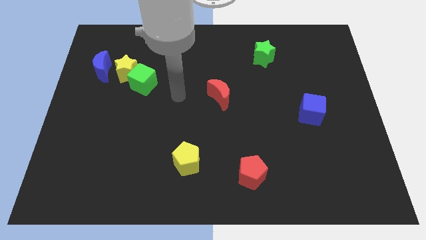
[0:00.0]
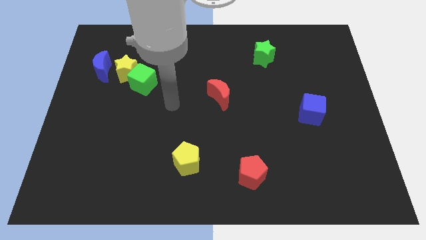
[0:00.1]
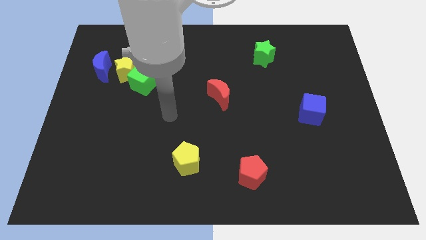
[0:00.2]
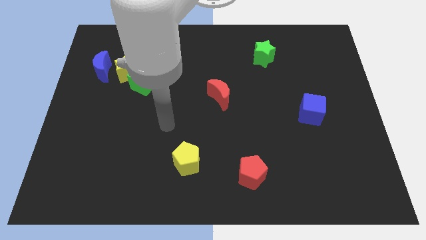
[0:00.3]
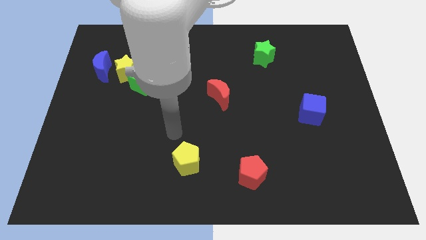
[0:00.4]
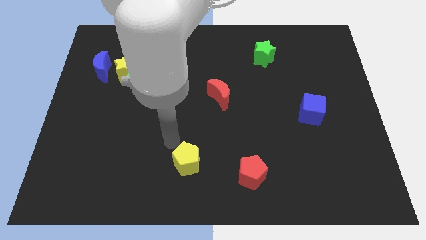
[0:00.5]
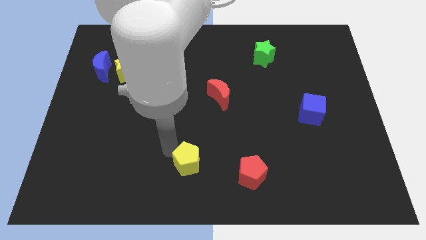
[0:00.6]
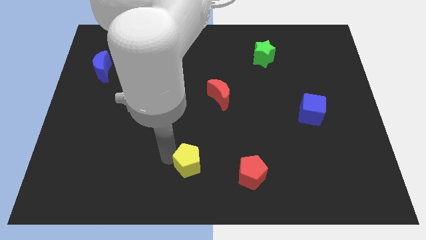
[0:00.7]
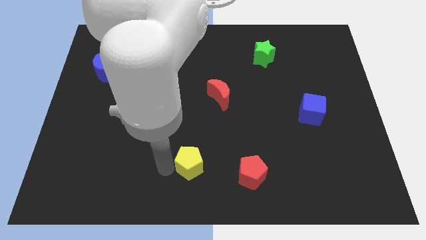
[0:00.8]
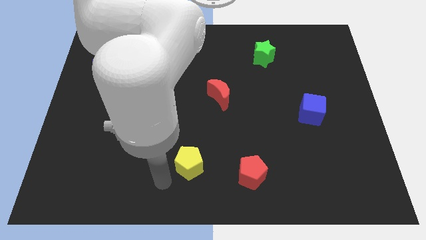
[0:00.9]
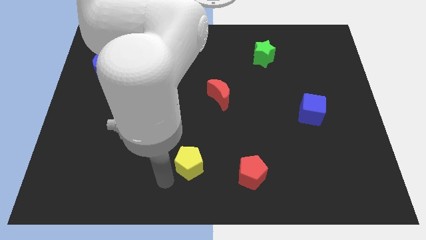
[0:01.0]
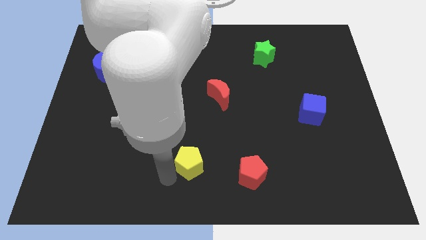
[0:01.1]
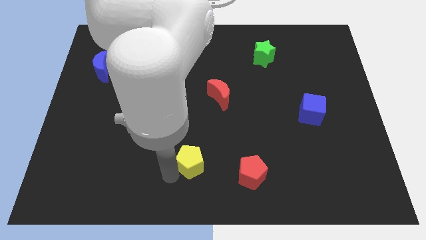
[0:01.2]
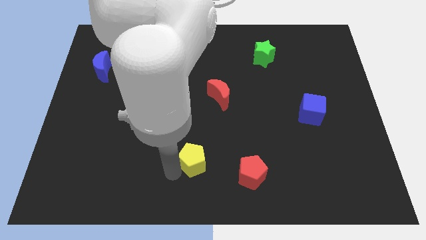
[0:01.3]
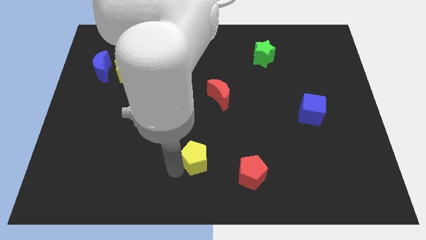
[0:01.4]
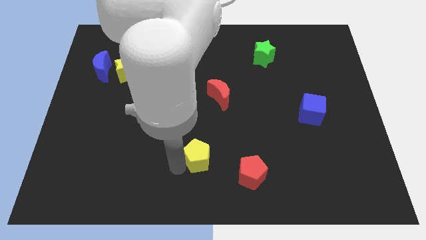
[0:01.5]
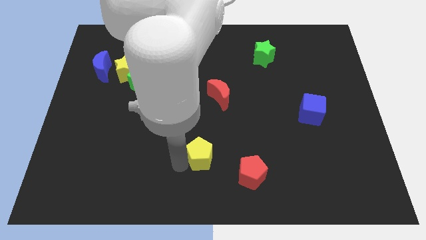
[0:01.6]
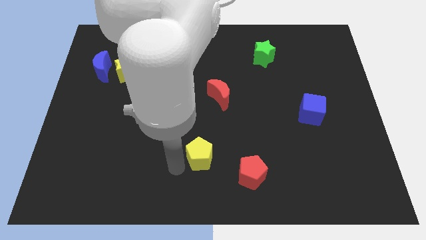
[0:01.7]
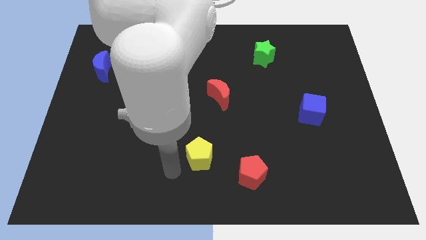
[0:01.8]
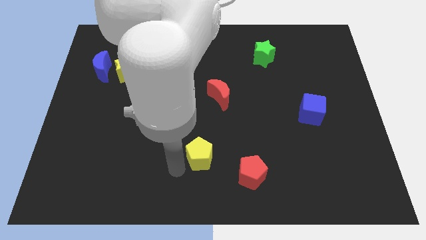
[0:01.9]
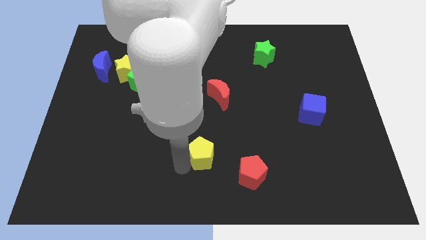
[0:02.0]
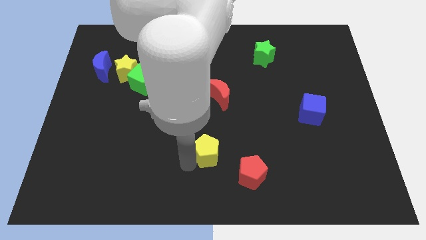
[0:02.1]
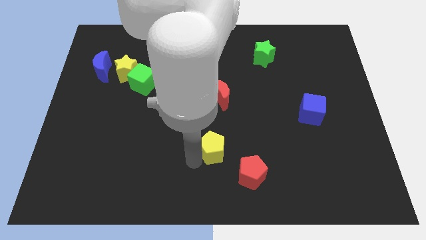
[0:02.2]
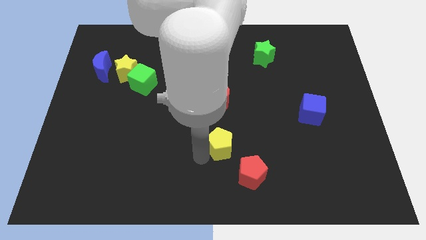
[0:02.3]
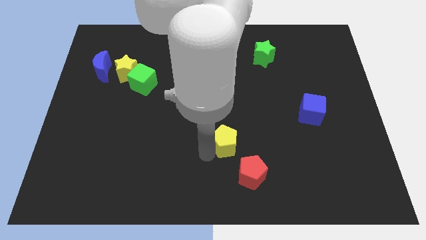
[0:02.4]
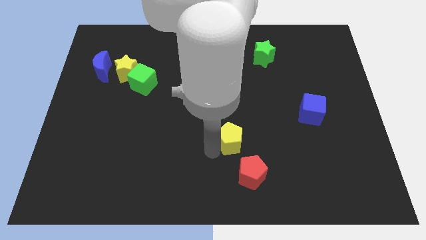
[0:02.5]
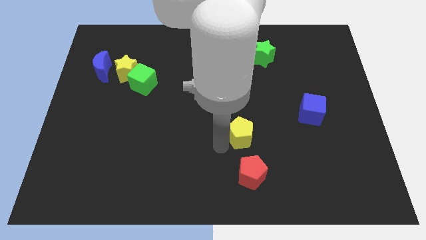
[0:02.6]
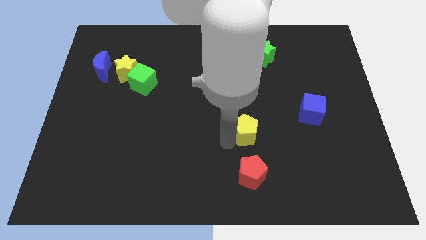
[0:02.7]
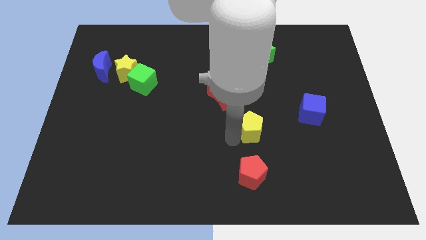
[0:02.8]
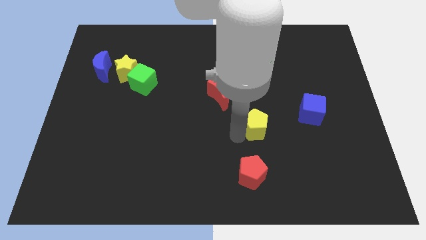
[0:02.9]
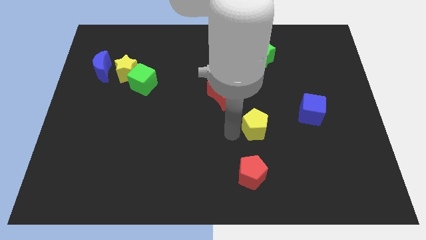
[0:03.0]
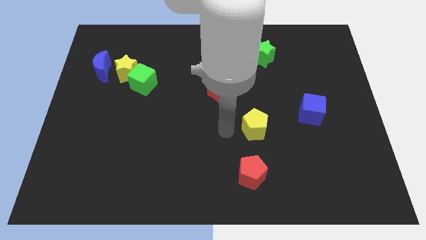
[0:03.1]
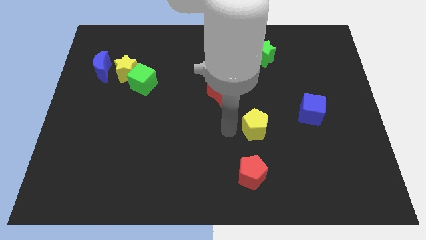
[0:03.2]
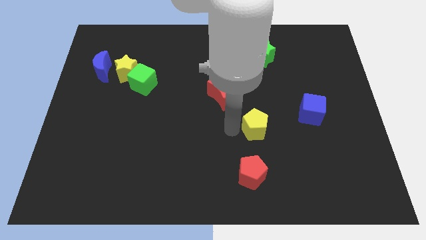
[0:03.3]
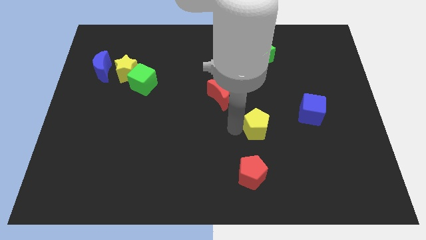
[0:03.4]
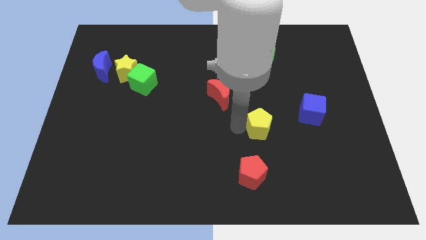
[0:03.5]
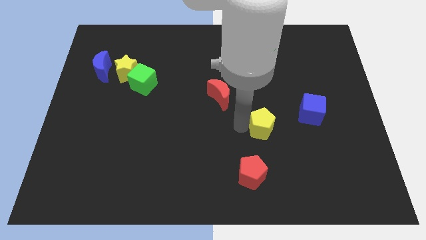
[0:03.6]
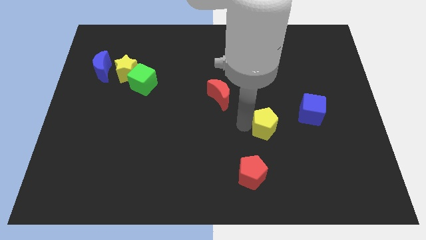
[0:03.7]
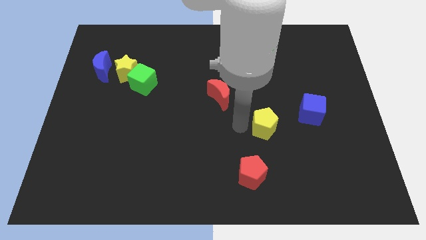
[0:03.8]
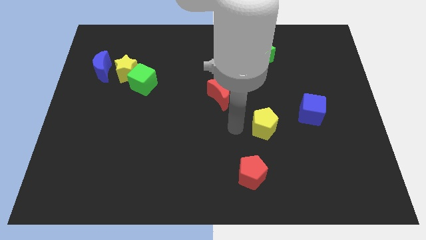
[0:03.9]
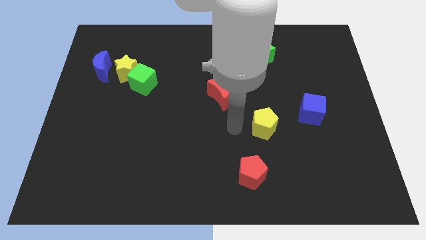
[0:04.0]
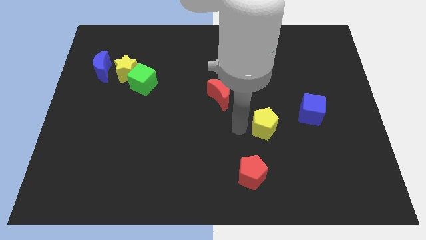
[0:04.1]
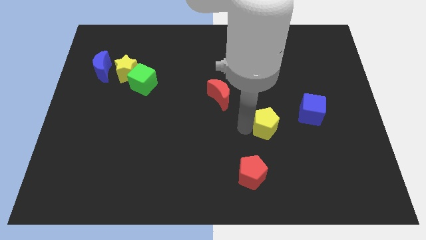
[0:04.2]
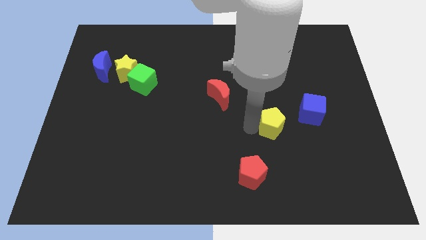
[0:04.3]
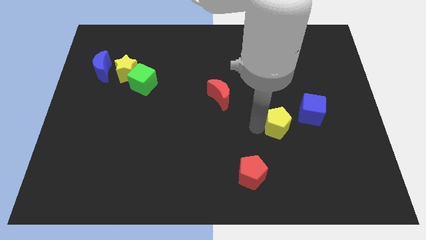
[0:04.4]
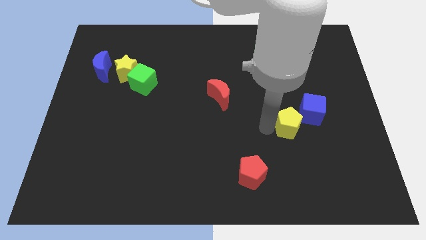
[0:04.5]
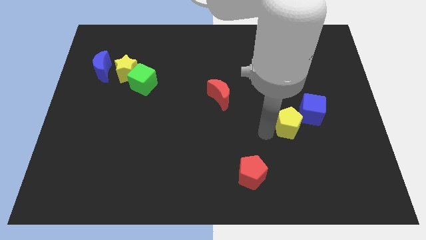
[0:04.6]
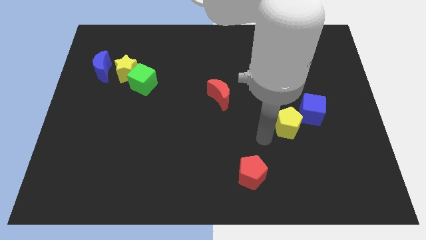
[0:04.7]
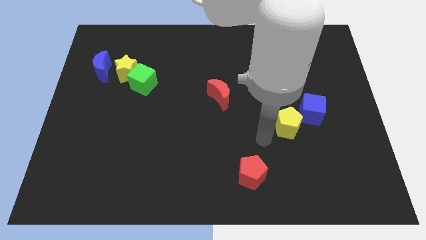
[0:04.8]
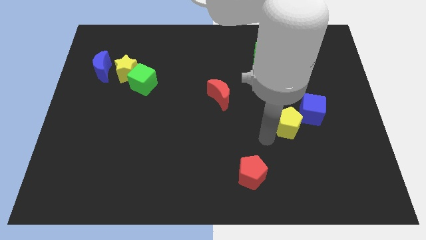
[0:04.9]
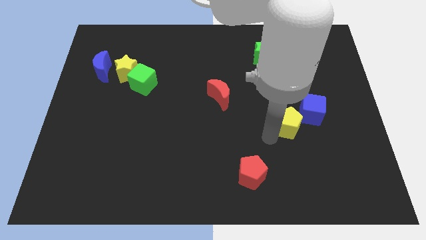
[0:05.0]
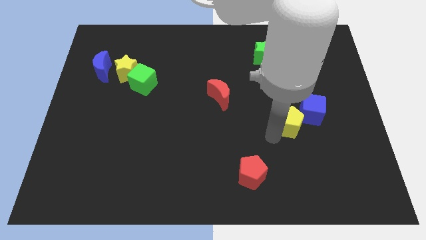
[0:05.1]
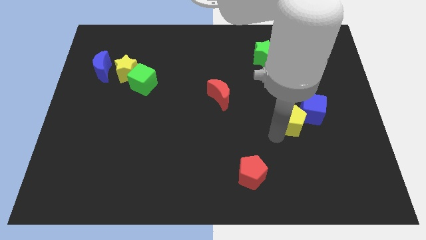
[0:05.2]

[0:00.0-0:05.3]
put the yellow pentagon to the blue cube

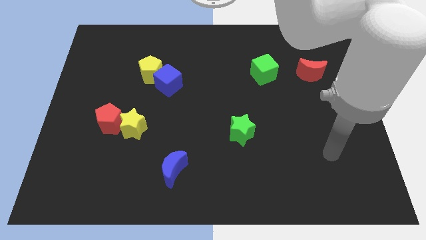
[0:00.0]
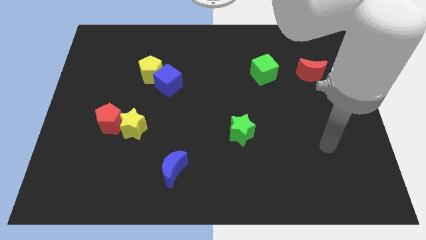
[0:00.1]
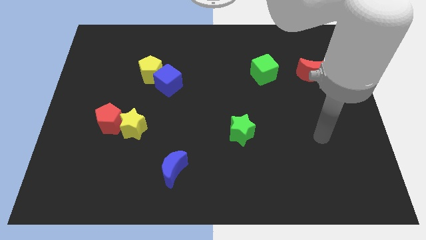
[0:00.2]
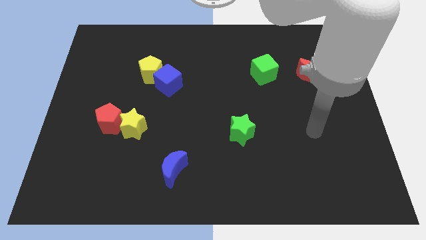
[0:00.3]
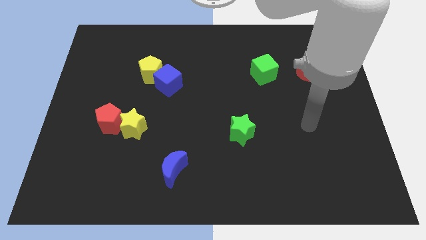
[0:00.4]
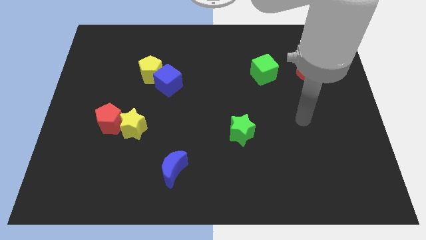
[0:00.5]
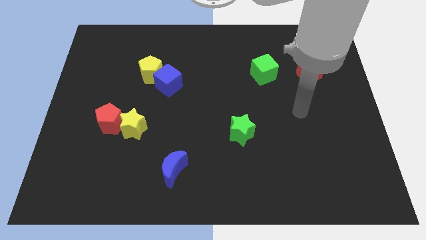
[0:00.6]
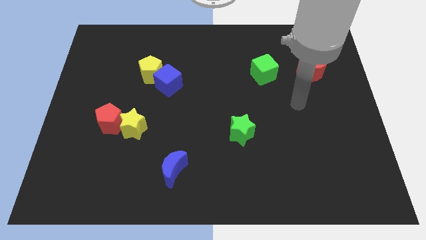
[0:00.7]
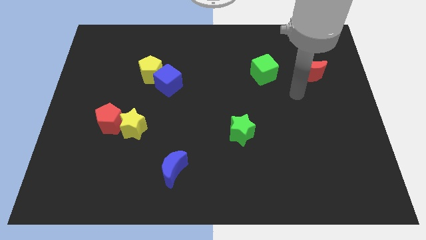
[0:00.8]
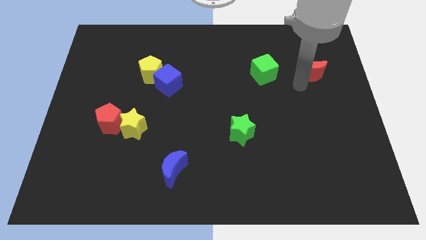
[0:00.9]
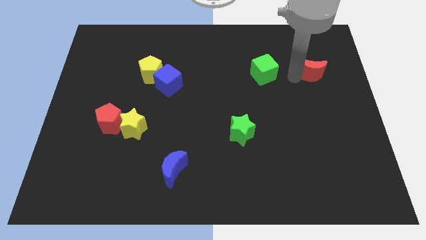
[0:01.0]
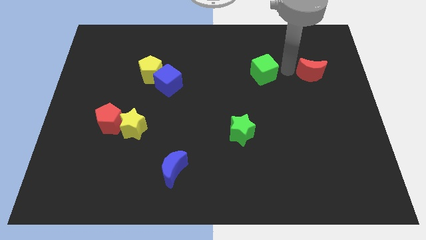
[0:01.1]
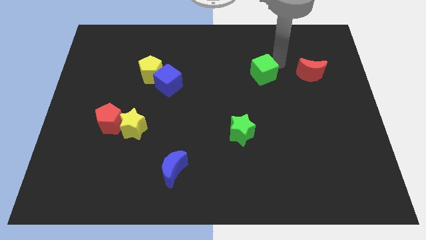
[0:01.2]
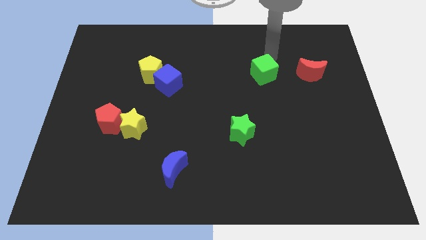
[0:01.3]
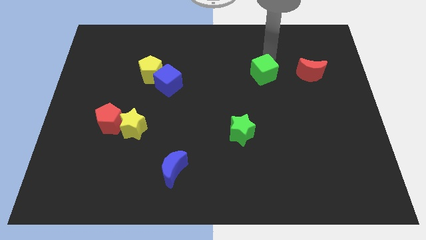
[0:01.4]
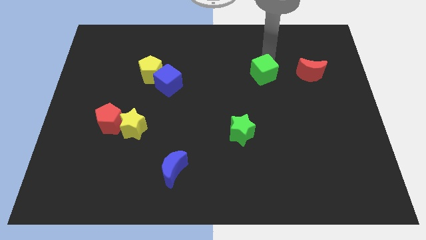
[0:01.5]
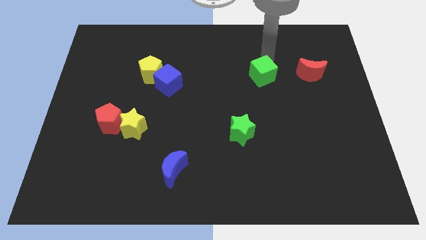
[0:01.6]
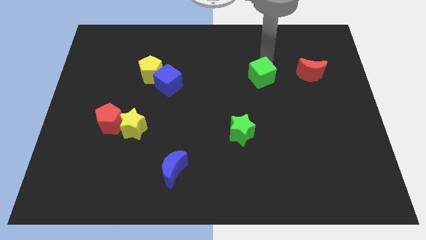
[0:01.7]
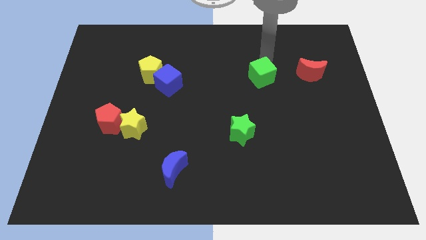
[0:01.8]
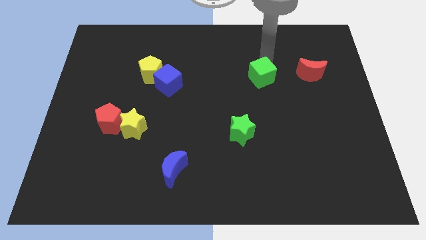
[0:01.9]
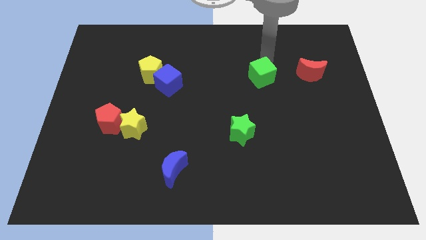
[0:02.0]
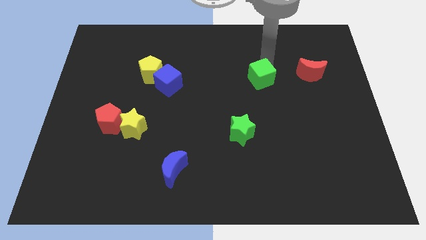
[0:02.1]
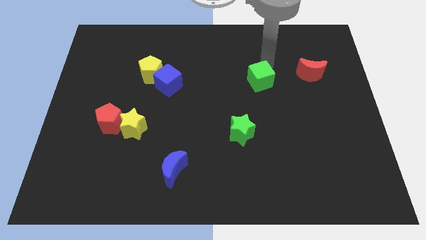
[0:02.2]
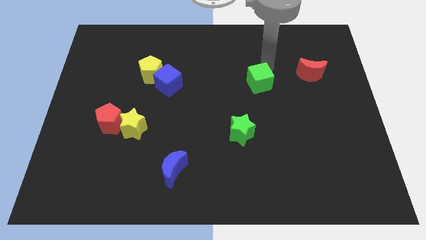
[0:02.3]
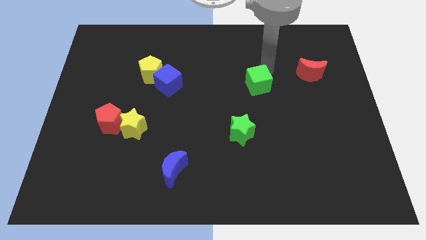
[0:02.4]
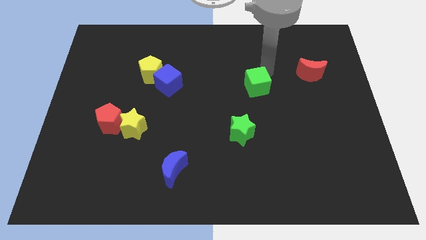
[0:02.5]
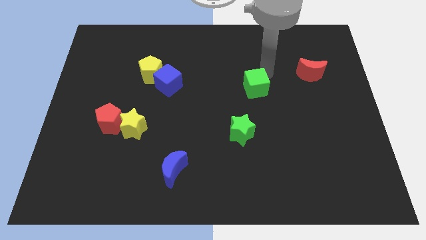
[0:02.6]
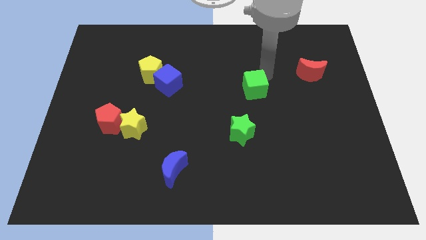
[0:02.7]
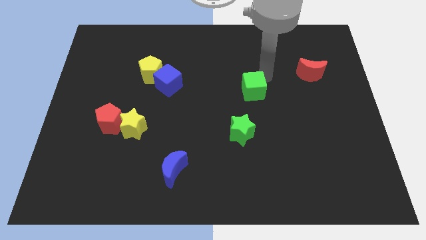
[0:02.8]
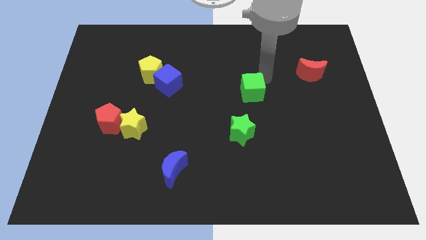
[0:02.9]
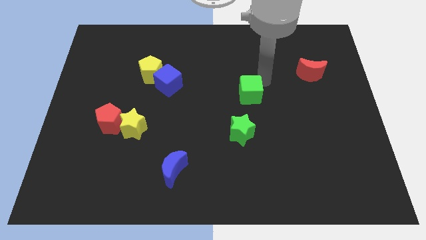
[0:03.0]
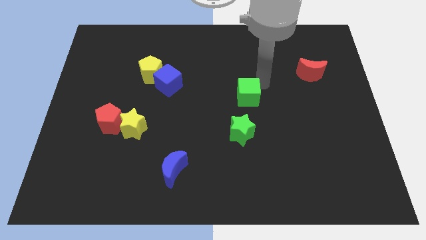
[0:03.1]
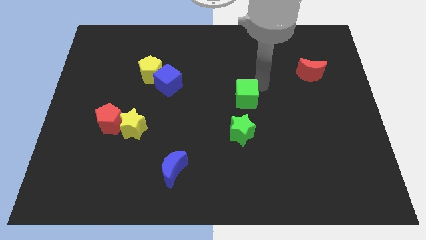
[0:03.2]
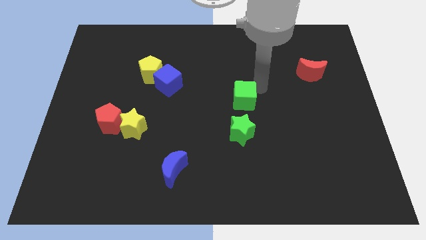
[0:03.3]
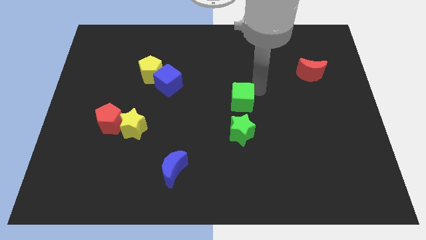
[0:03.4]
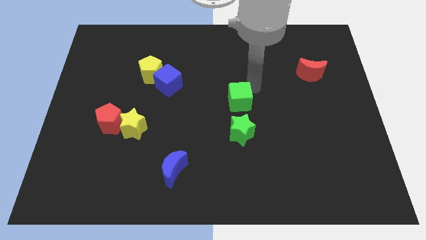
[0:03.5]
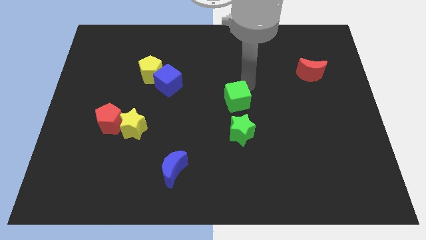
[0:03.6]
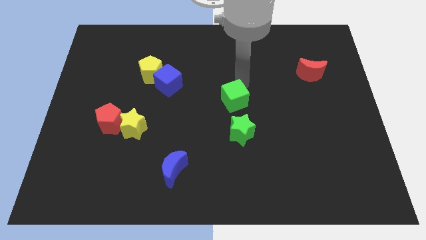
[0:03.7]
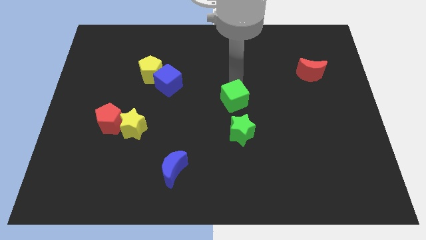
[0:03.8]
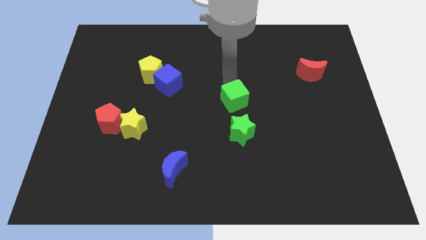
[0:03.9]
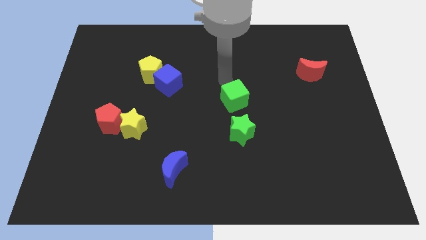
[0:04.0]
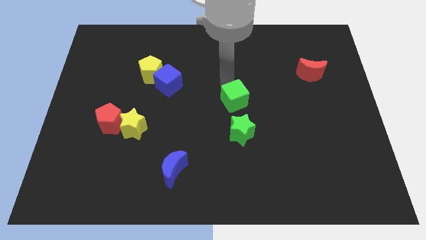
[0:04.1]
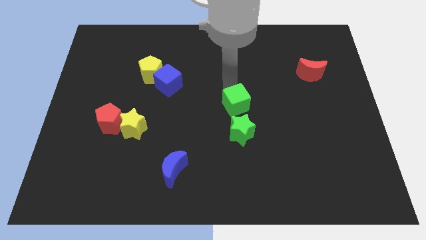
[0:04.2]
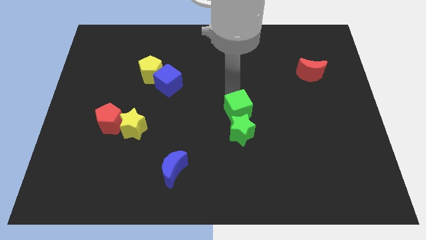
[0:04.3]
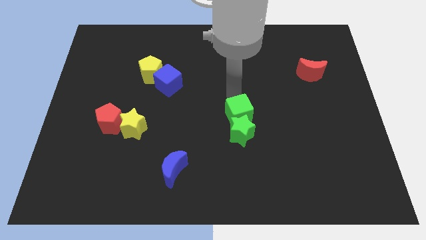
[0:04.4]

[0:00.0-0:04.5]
move the green cube to the green star
